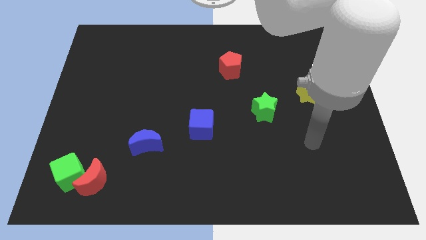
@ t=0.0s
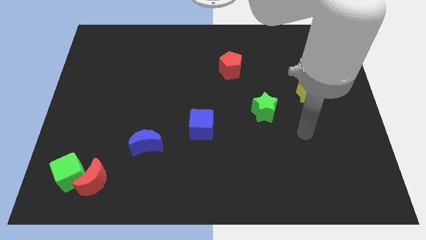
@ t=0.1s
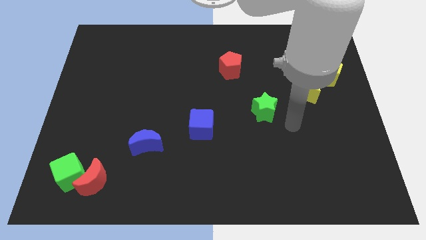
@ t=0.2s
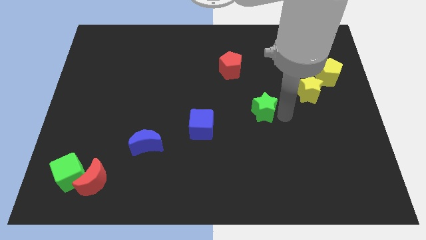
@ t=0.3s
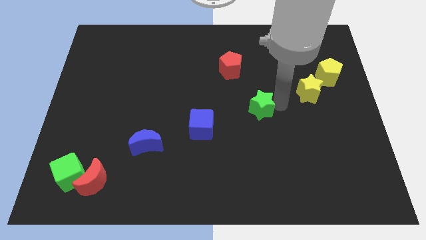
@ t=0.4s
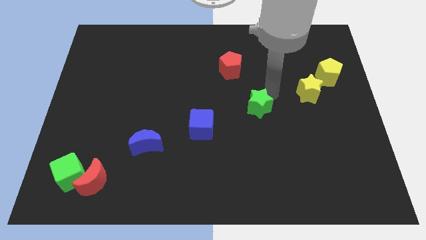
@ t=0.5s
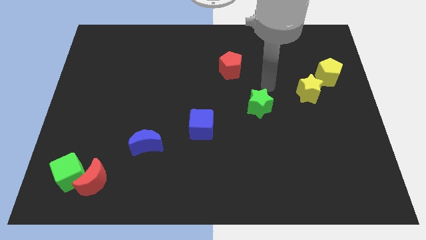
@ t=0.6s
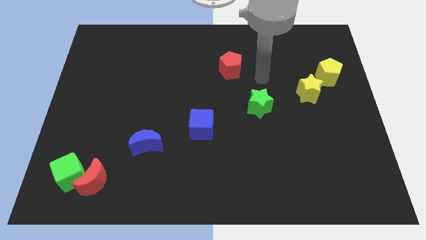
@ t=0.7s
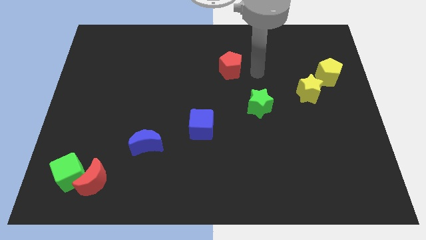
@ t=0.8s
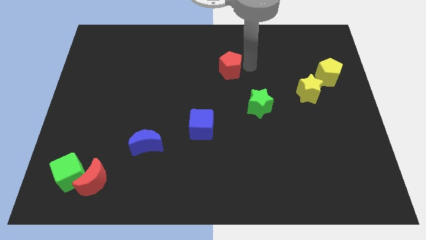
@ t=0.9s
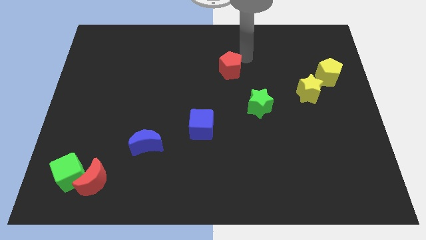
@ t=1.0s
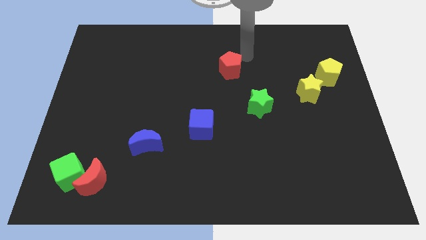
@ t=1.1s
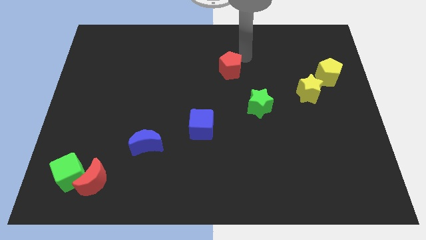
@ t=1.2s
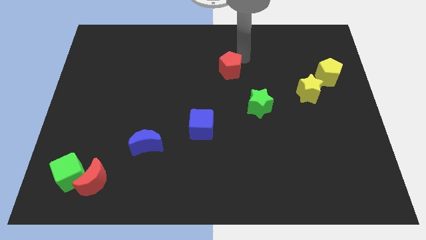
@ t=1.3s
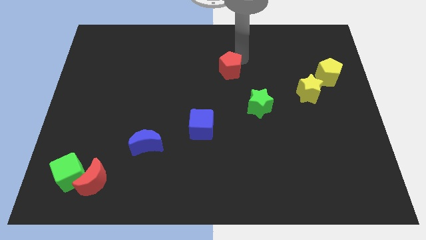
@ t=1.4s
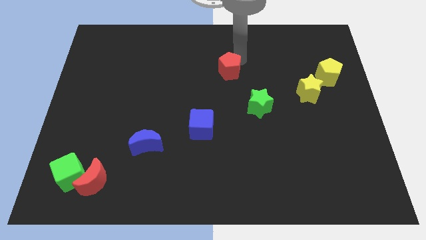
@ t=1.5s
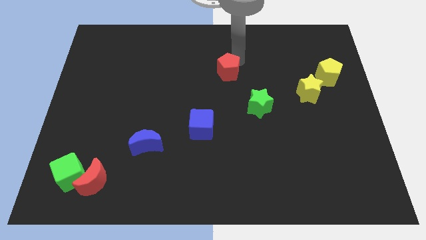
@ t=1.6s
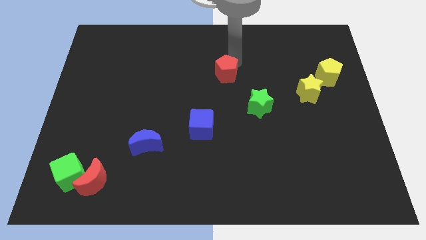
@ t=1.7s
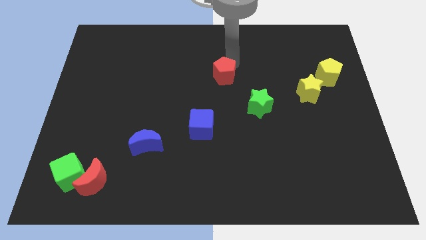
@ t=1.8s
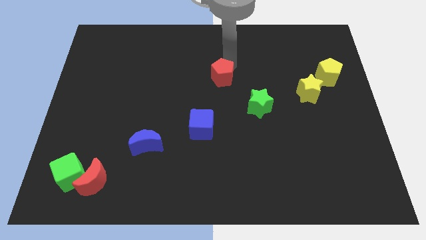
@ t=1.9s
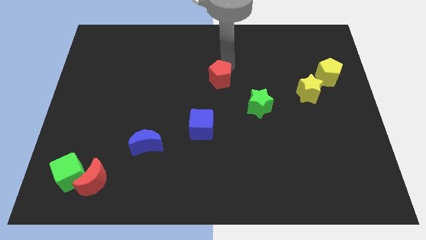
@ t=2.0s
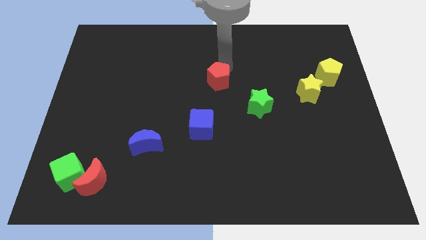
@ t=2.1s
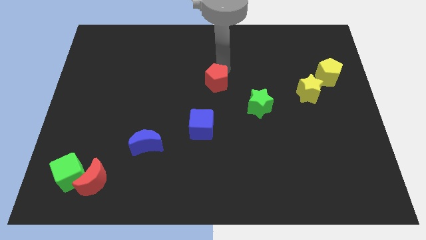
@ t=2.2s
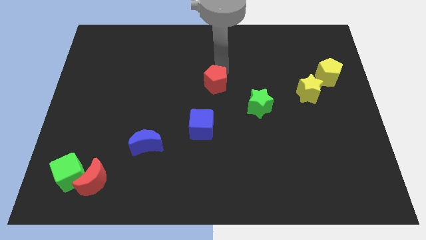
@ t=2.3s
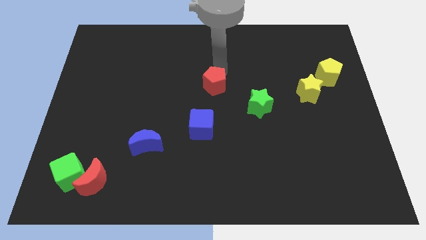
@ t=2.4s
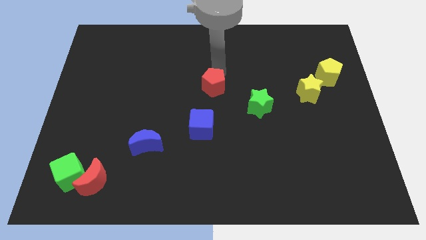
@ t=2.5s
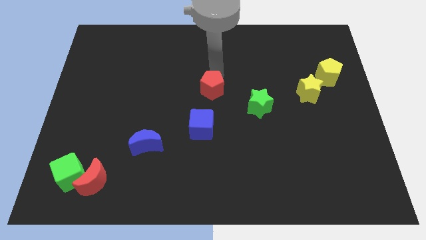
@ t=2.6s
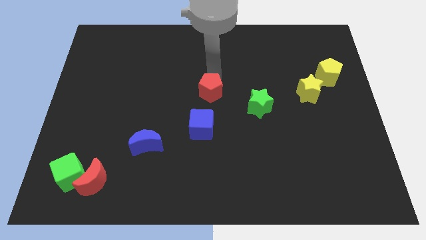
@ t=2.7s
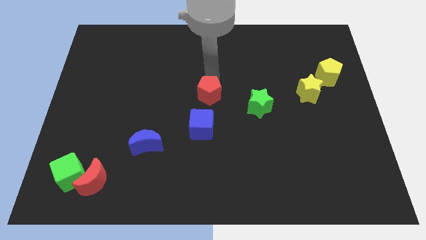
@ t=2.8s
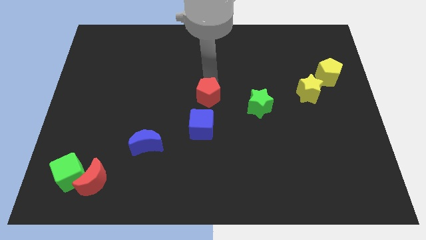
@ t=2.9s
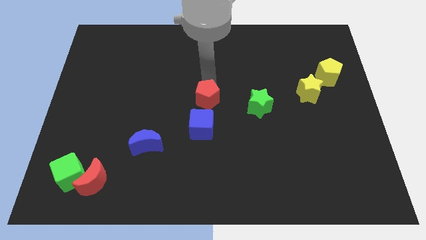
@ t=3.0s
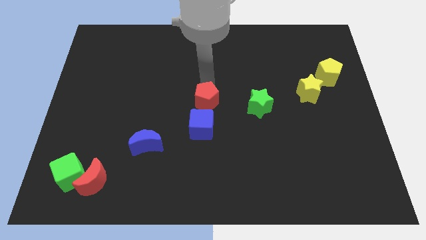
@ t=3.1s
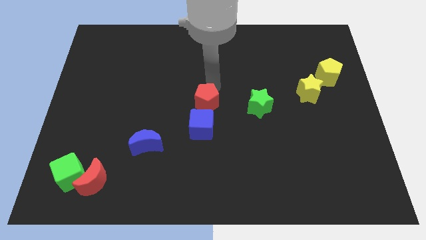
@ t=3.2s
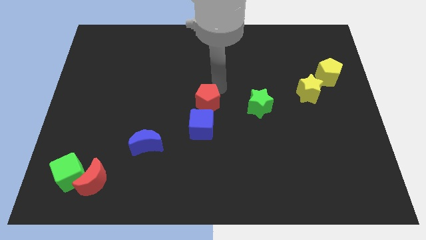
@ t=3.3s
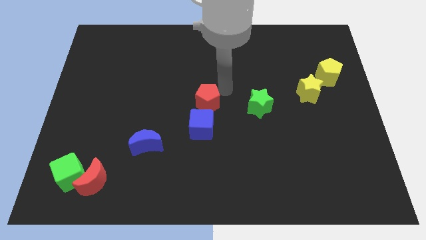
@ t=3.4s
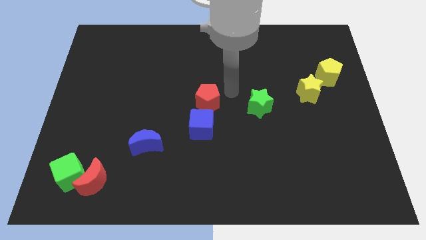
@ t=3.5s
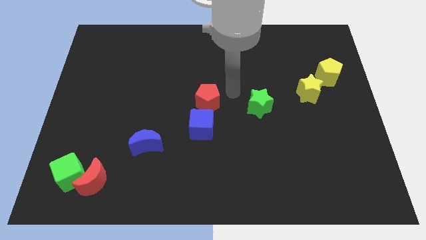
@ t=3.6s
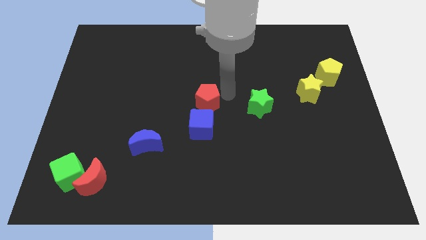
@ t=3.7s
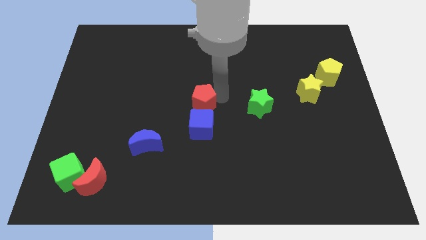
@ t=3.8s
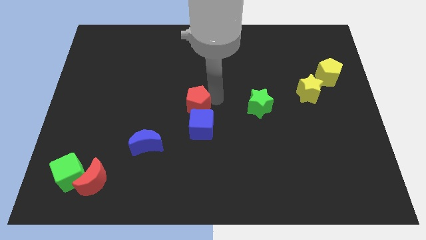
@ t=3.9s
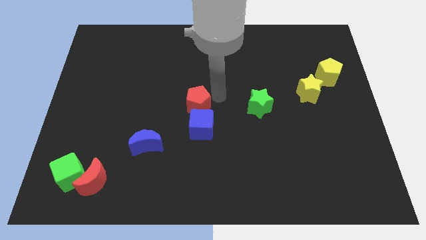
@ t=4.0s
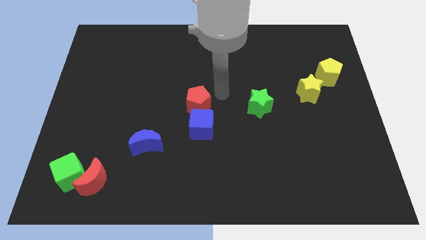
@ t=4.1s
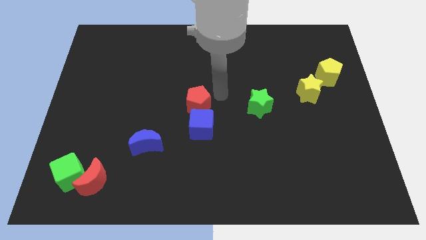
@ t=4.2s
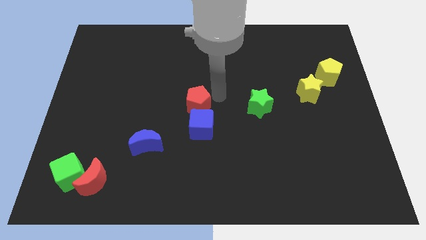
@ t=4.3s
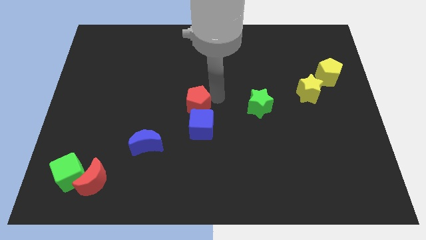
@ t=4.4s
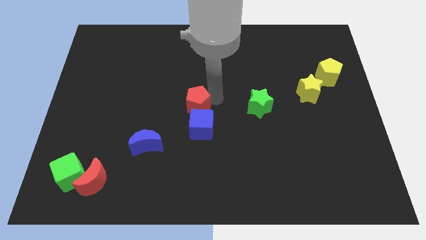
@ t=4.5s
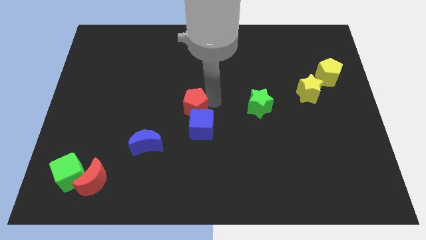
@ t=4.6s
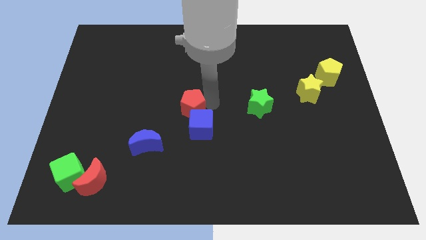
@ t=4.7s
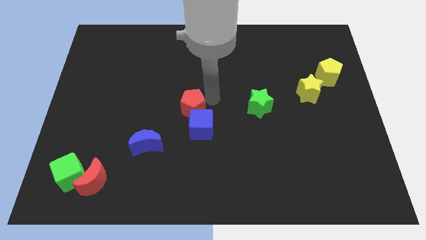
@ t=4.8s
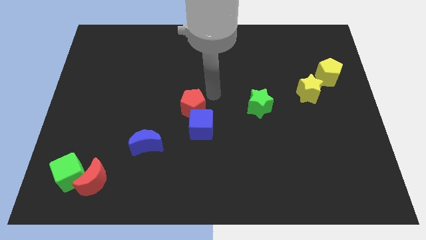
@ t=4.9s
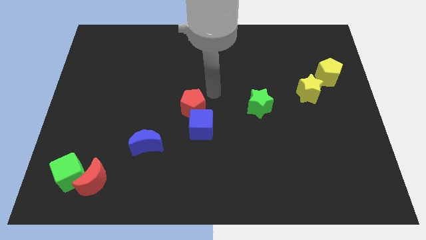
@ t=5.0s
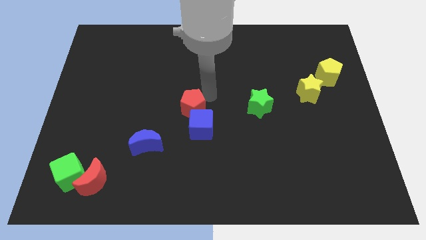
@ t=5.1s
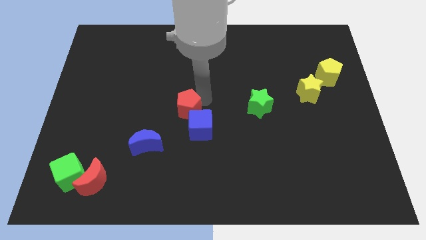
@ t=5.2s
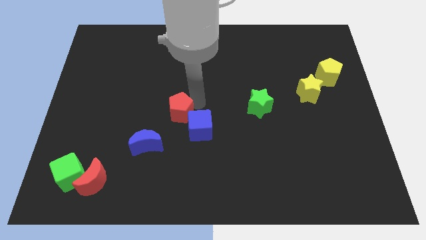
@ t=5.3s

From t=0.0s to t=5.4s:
put the red pentagon to the top right side of the blue moon

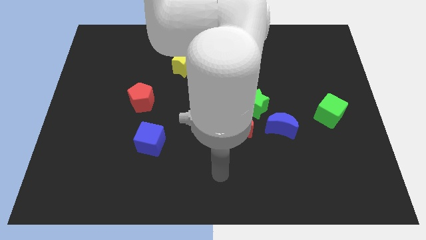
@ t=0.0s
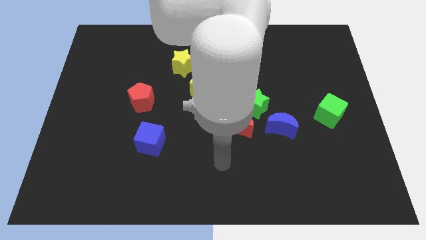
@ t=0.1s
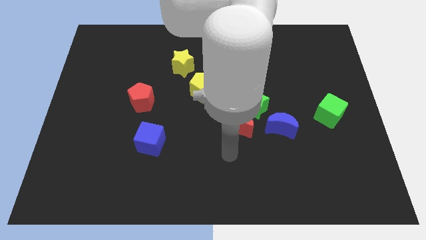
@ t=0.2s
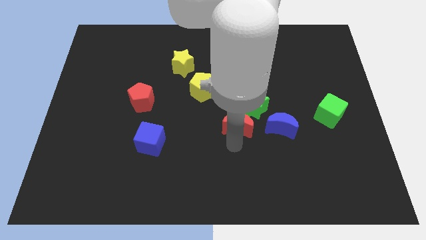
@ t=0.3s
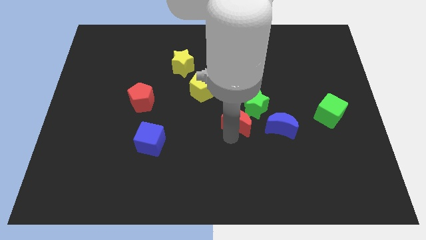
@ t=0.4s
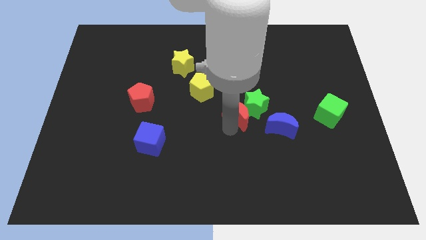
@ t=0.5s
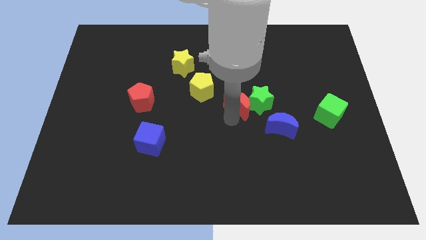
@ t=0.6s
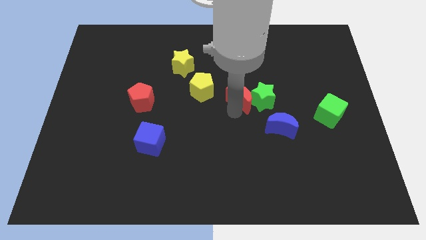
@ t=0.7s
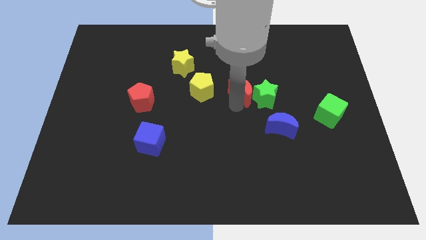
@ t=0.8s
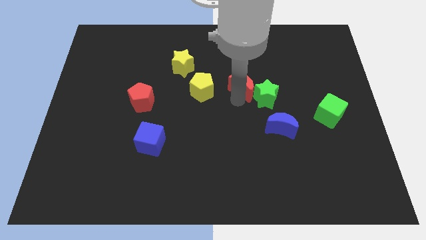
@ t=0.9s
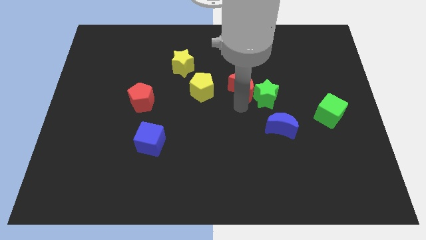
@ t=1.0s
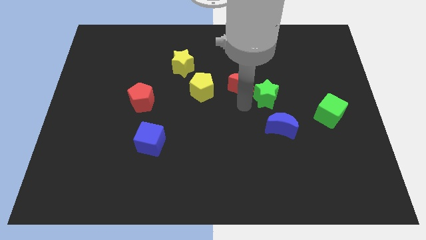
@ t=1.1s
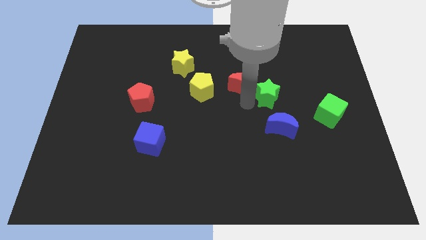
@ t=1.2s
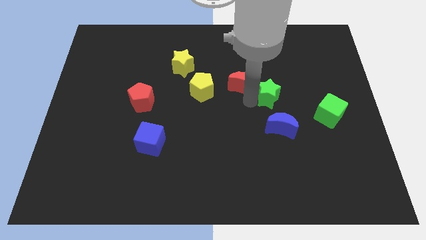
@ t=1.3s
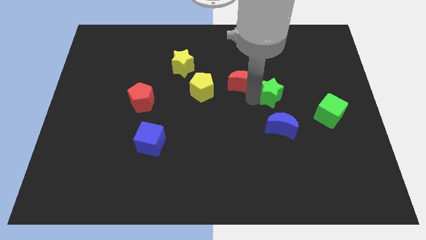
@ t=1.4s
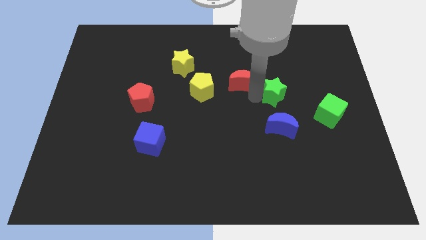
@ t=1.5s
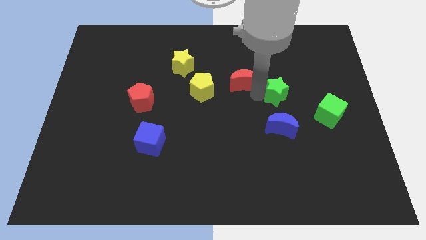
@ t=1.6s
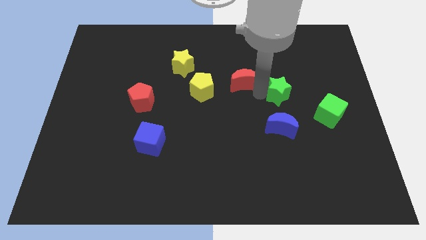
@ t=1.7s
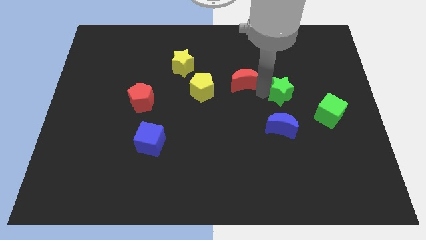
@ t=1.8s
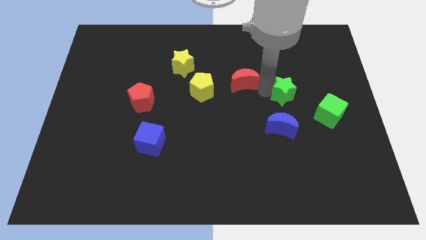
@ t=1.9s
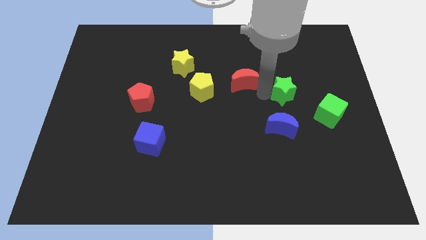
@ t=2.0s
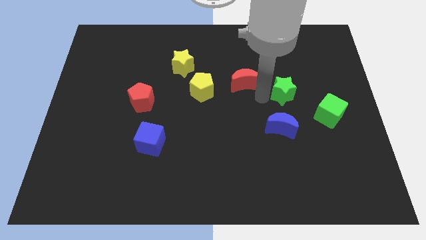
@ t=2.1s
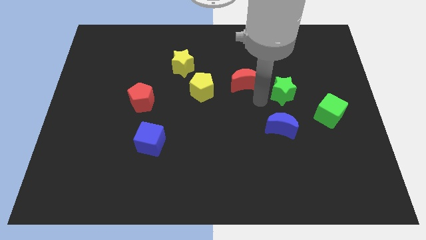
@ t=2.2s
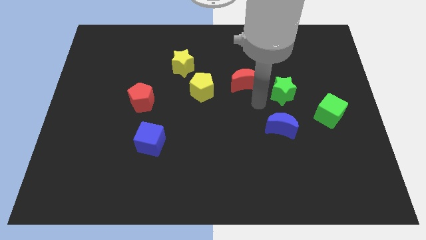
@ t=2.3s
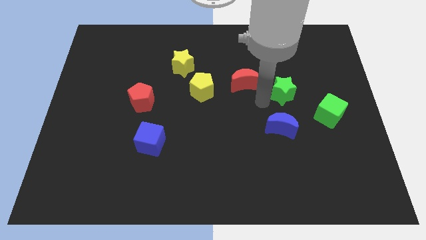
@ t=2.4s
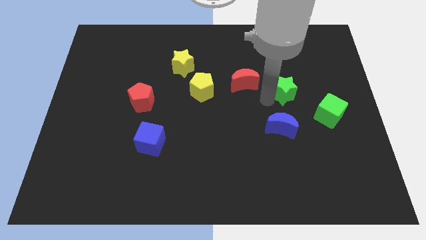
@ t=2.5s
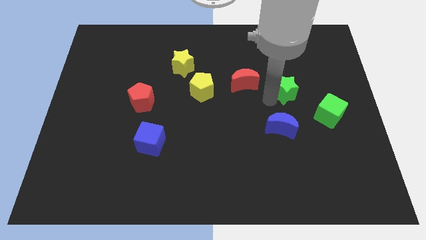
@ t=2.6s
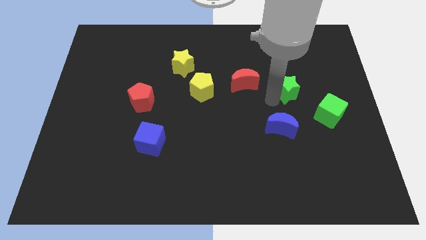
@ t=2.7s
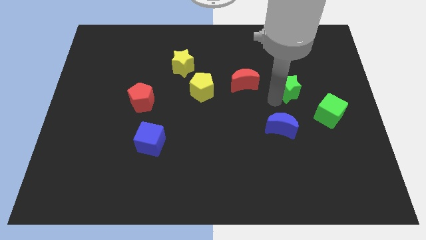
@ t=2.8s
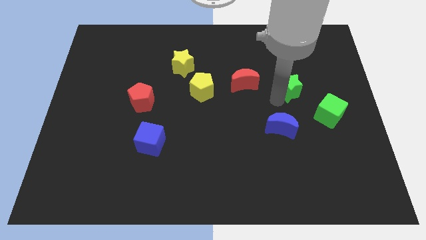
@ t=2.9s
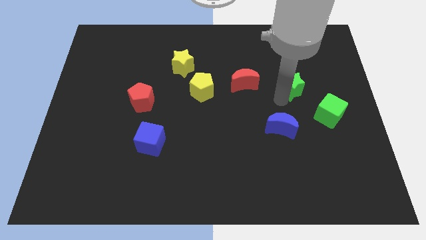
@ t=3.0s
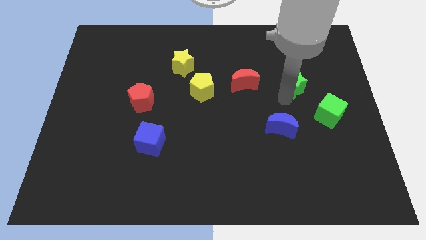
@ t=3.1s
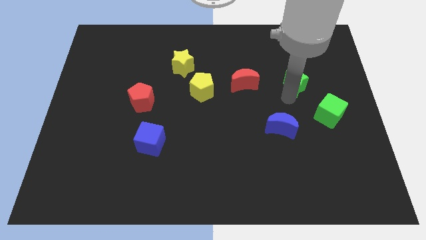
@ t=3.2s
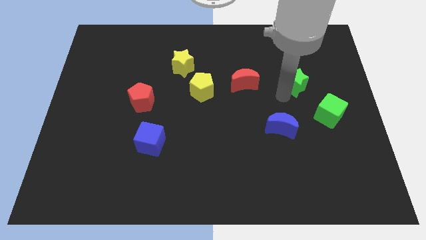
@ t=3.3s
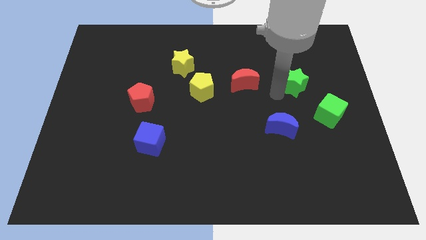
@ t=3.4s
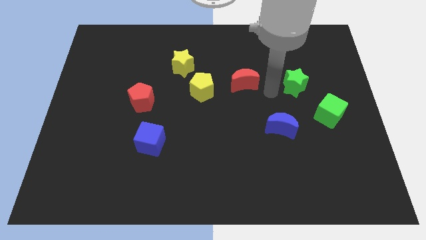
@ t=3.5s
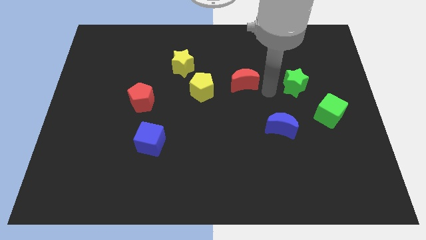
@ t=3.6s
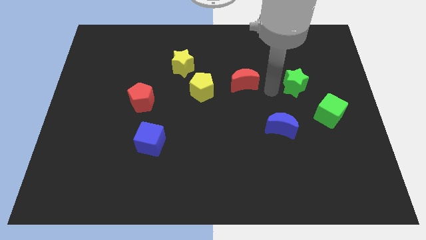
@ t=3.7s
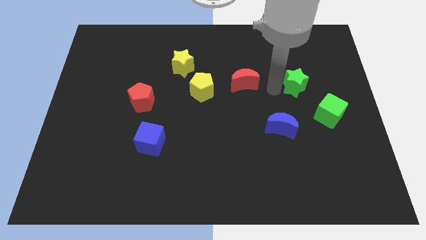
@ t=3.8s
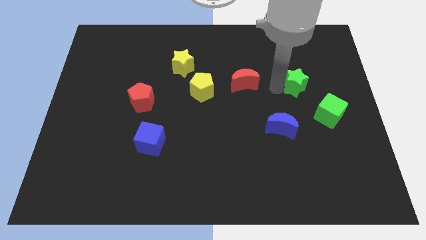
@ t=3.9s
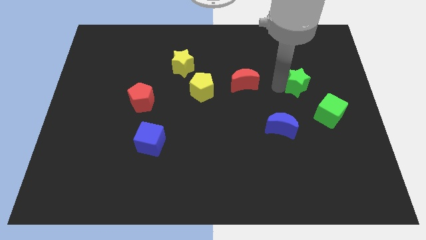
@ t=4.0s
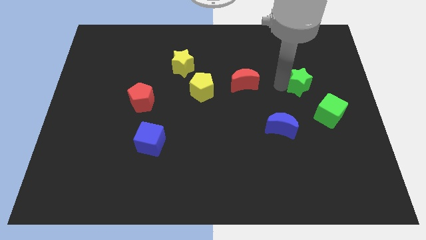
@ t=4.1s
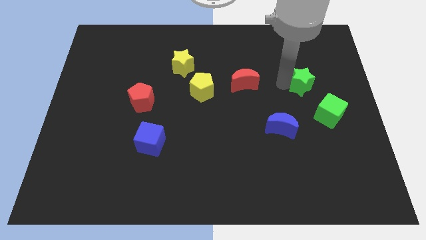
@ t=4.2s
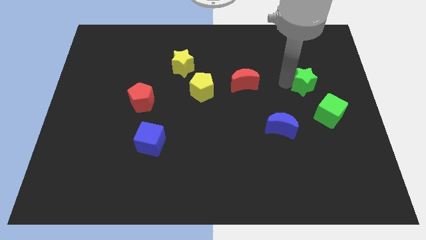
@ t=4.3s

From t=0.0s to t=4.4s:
move the green star to the top of the green cube
